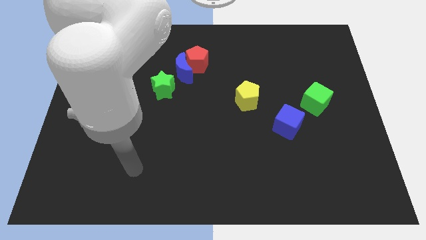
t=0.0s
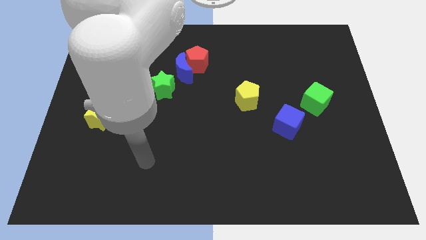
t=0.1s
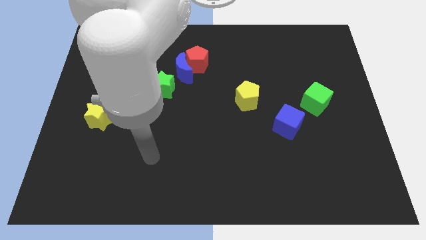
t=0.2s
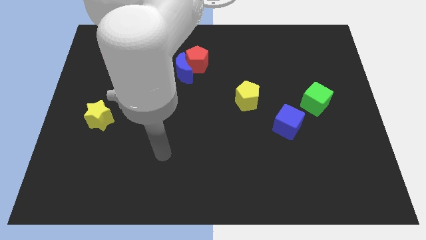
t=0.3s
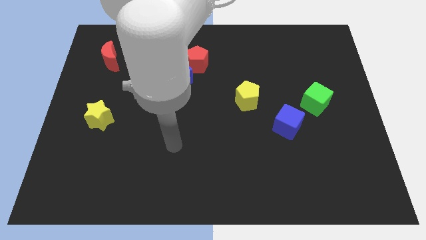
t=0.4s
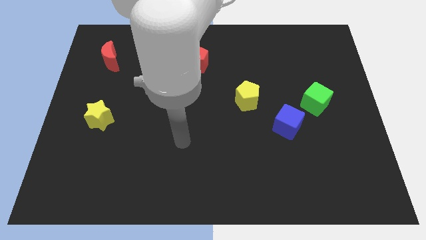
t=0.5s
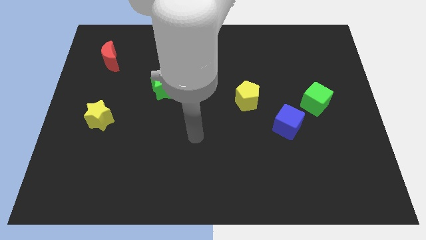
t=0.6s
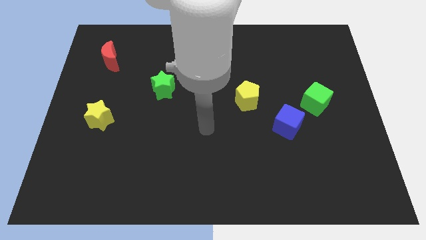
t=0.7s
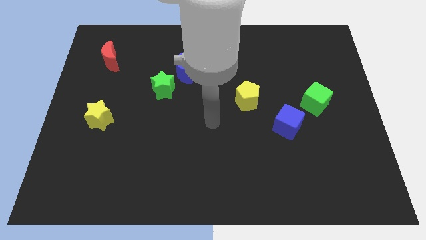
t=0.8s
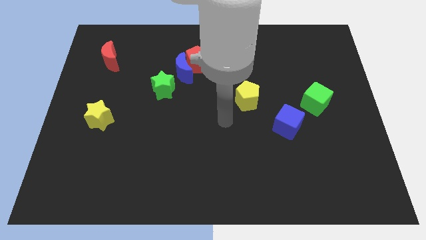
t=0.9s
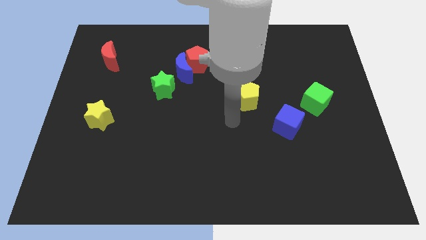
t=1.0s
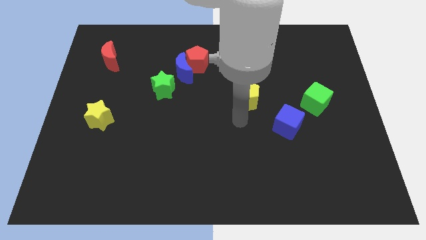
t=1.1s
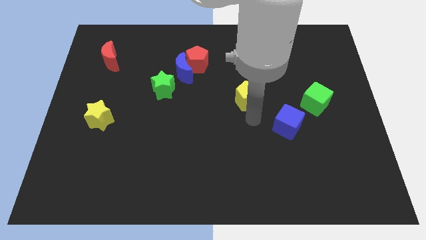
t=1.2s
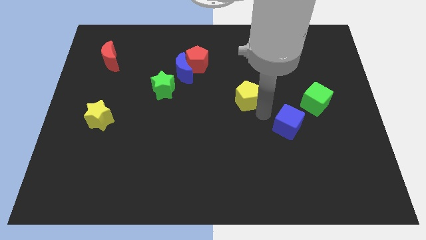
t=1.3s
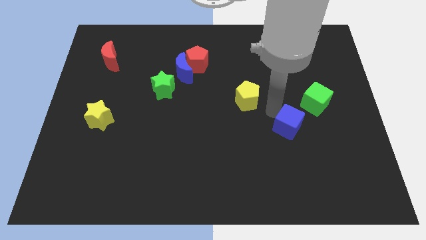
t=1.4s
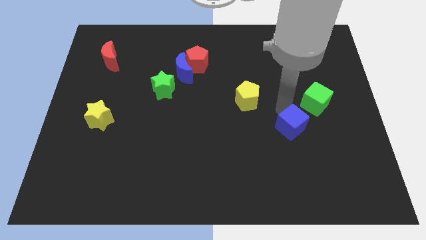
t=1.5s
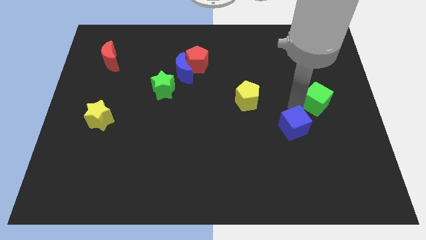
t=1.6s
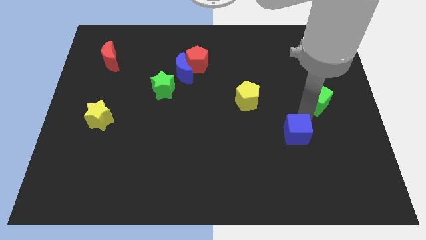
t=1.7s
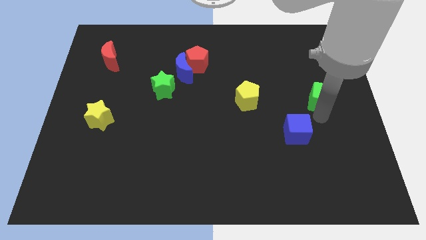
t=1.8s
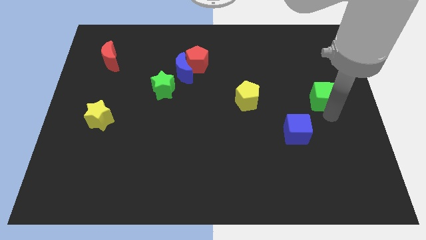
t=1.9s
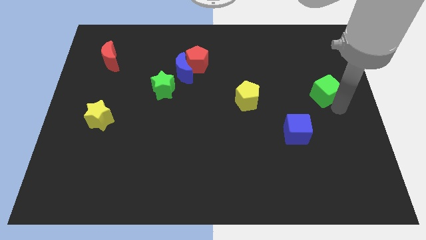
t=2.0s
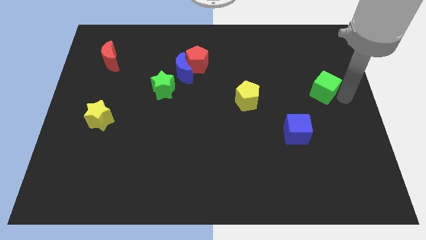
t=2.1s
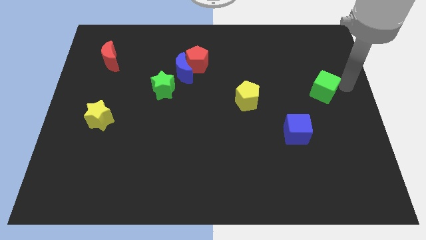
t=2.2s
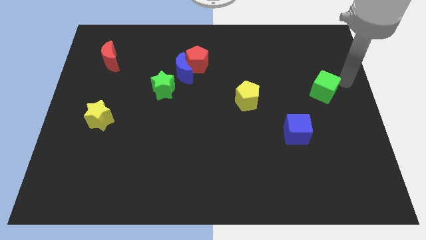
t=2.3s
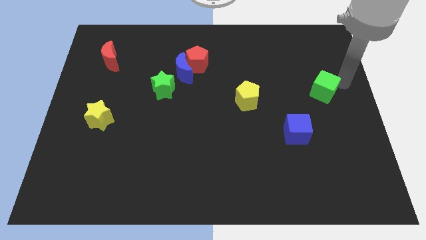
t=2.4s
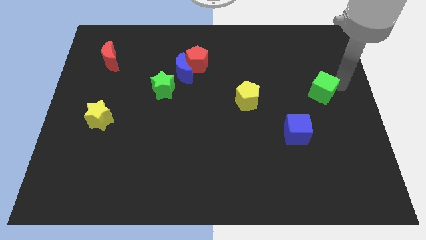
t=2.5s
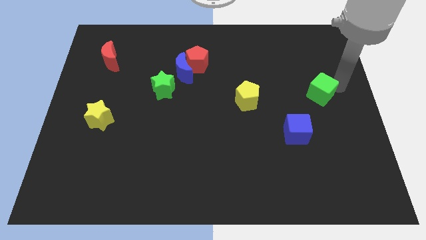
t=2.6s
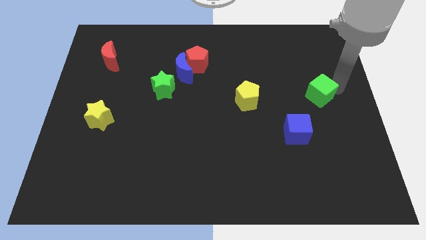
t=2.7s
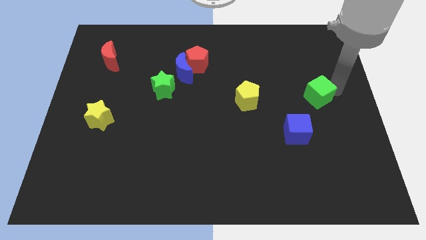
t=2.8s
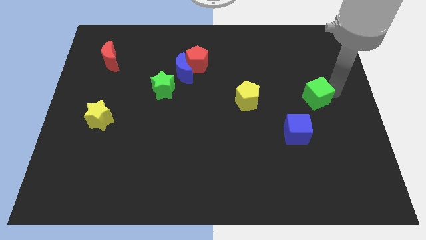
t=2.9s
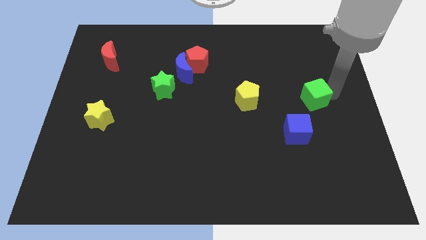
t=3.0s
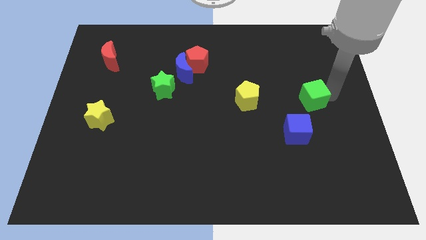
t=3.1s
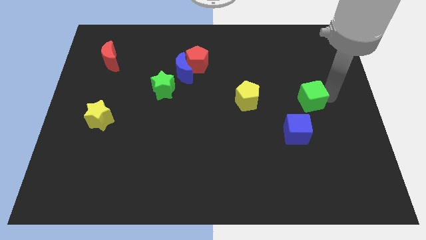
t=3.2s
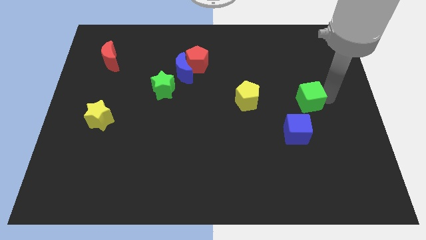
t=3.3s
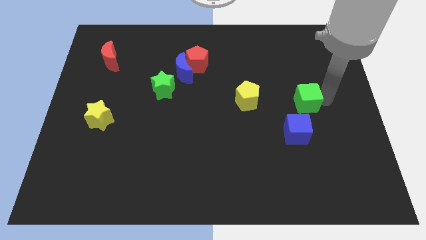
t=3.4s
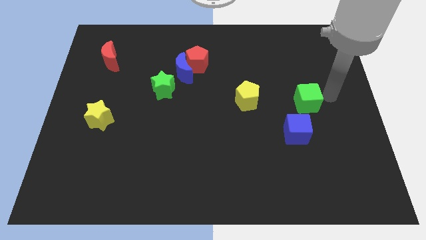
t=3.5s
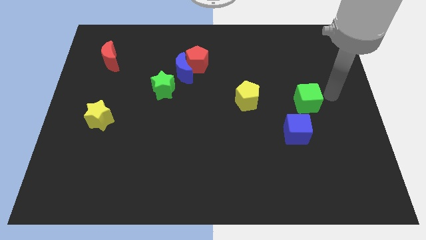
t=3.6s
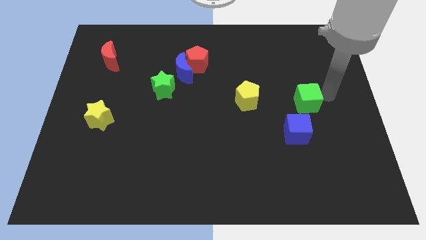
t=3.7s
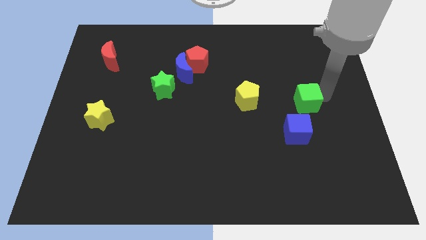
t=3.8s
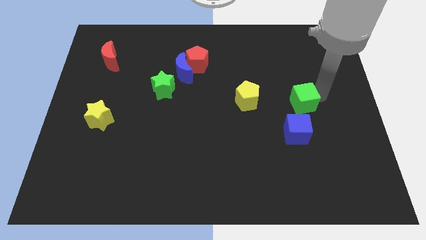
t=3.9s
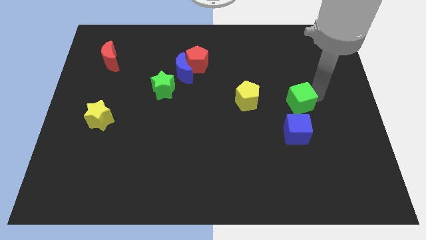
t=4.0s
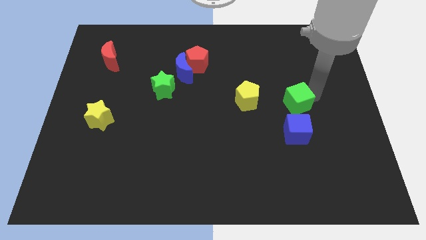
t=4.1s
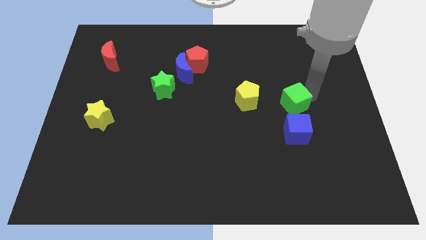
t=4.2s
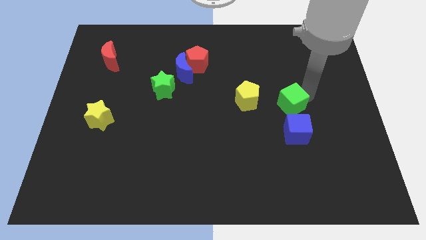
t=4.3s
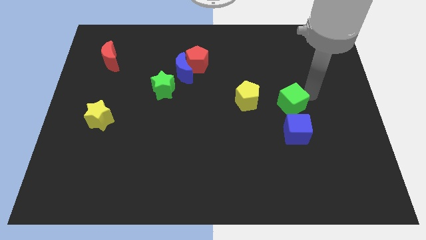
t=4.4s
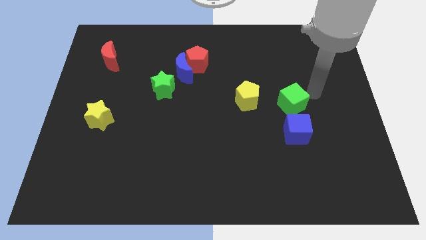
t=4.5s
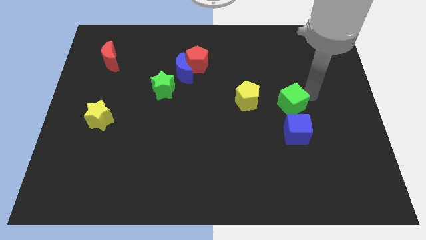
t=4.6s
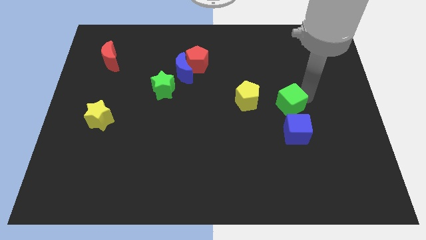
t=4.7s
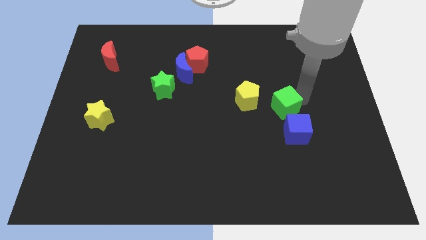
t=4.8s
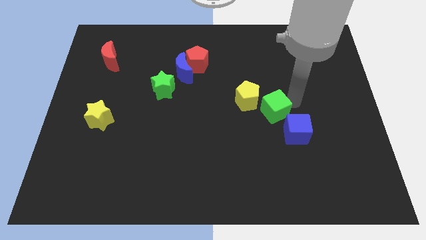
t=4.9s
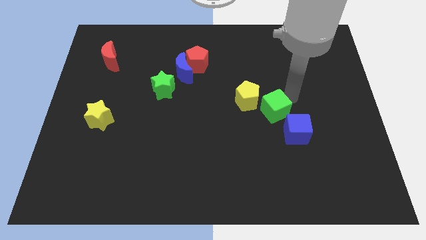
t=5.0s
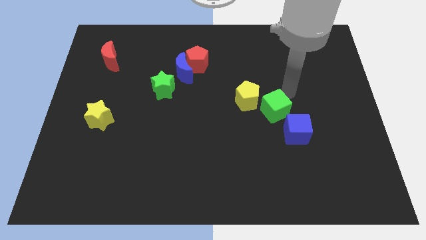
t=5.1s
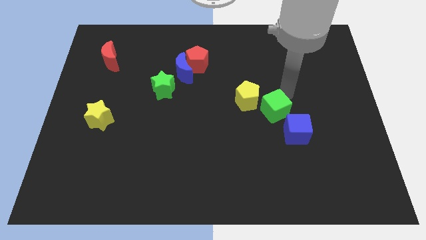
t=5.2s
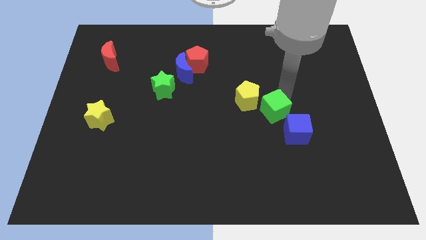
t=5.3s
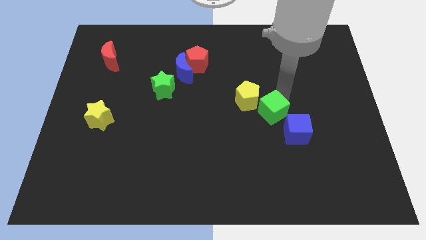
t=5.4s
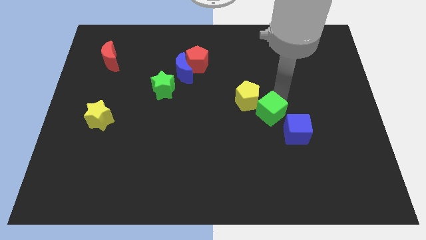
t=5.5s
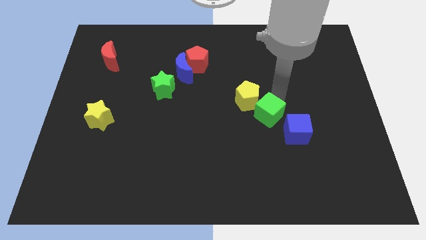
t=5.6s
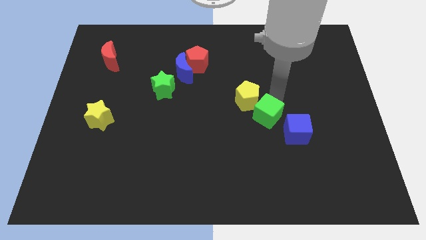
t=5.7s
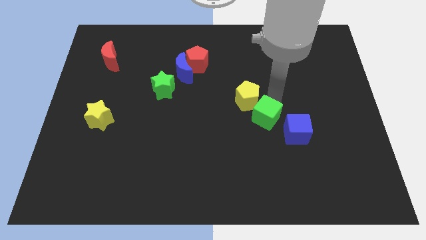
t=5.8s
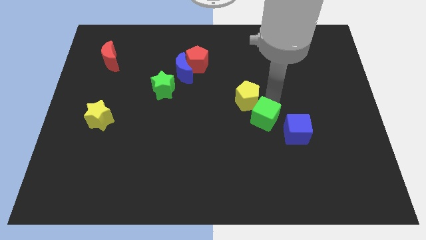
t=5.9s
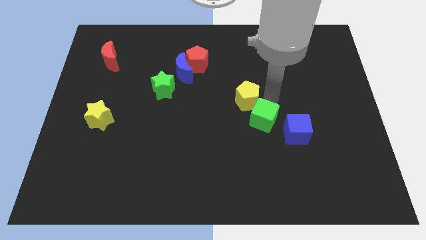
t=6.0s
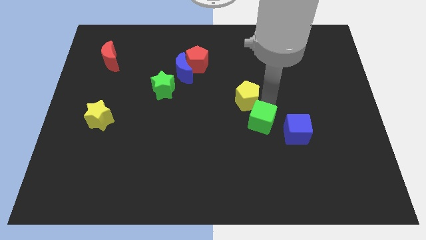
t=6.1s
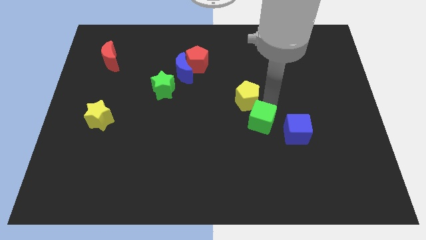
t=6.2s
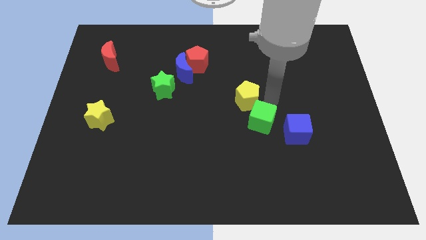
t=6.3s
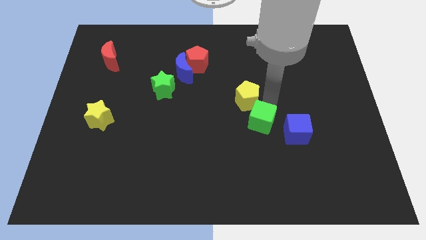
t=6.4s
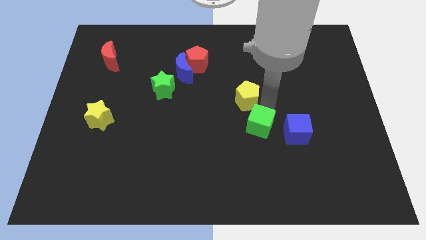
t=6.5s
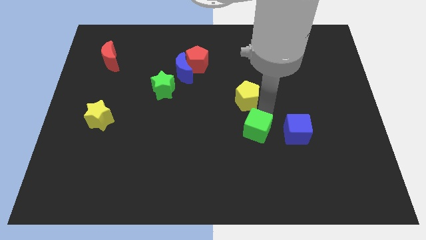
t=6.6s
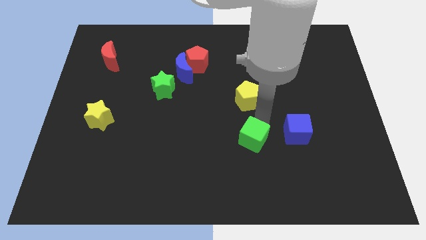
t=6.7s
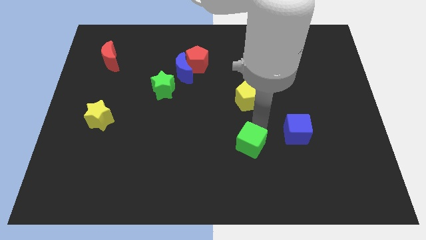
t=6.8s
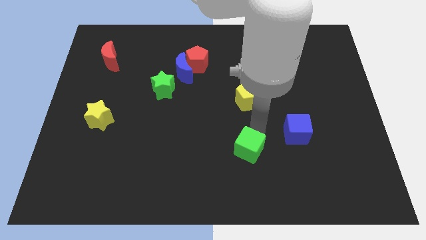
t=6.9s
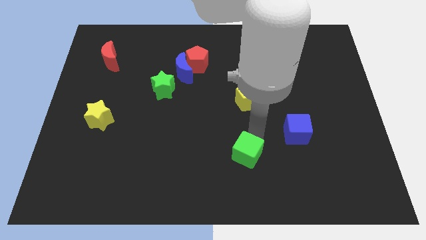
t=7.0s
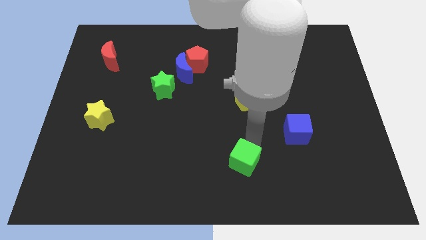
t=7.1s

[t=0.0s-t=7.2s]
push the green cube to the bottom

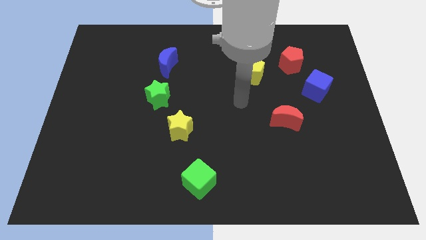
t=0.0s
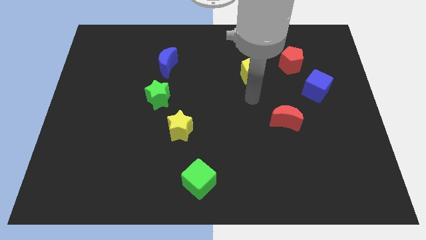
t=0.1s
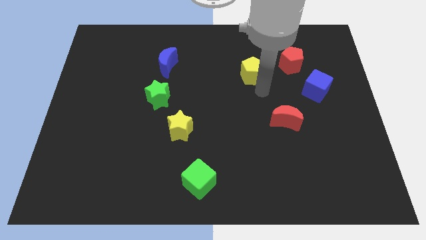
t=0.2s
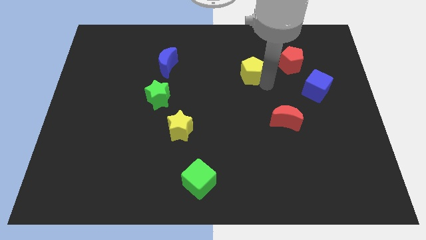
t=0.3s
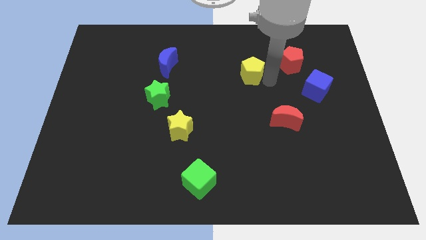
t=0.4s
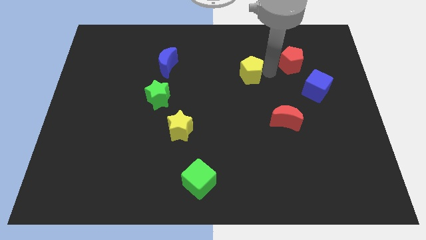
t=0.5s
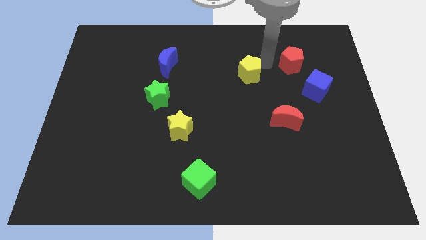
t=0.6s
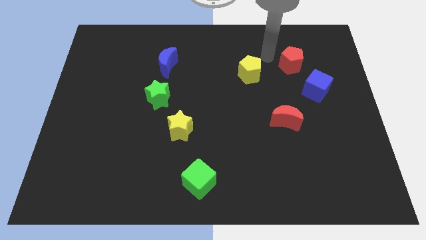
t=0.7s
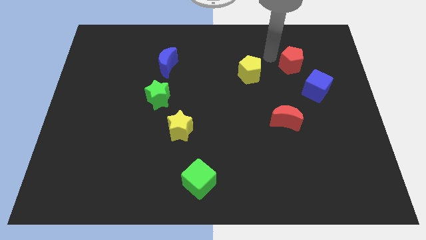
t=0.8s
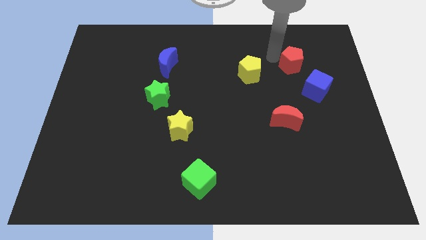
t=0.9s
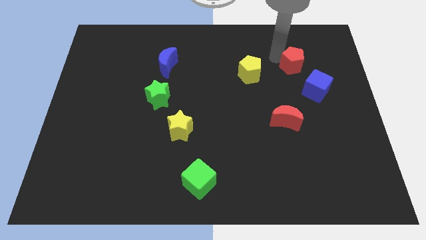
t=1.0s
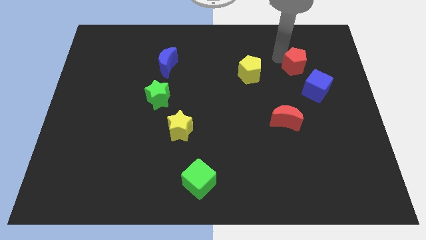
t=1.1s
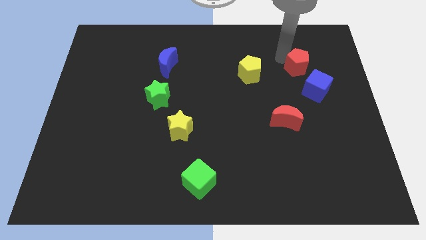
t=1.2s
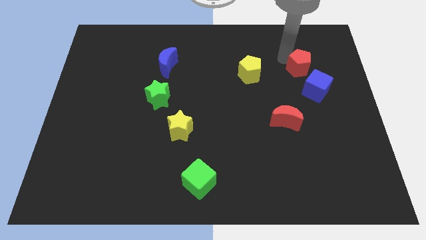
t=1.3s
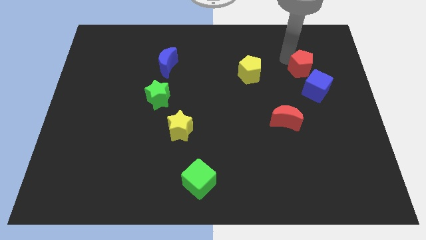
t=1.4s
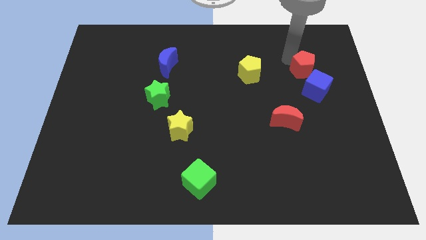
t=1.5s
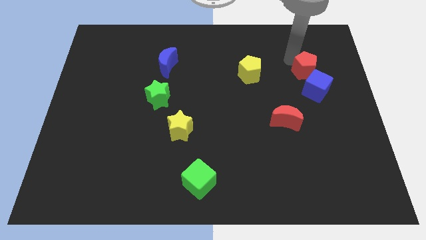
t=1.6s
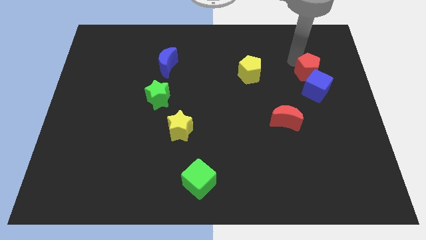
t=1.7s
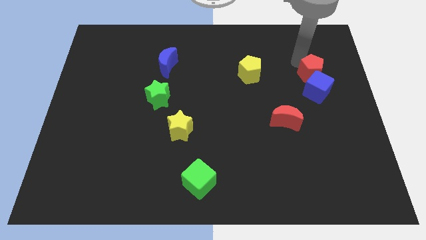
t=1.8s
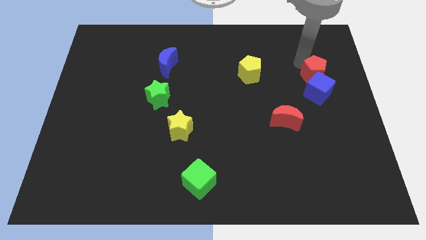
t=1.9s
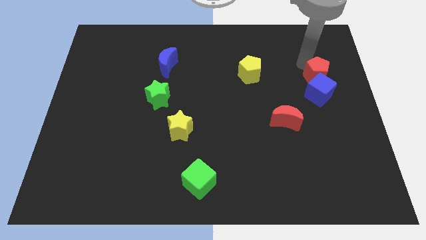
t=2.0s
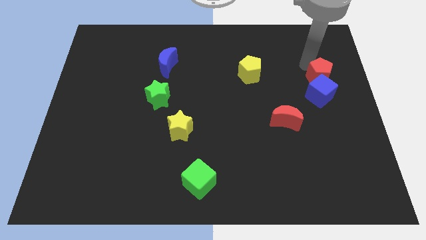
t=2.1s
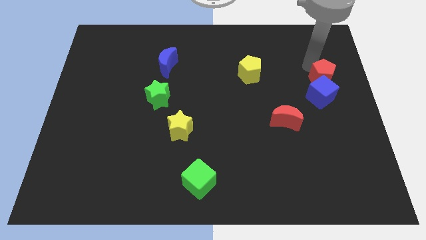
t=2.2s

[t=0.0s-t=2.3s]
put the red pentagon to the center right
